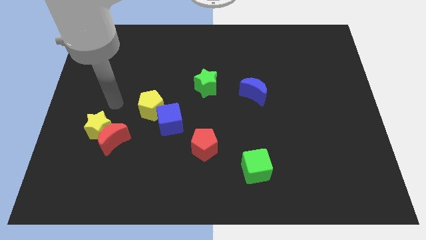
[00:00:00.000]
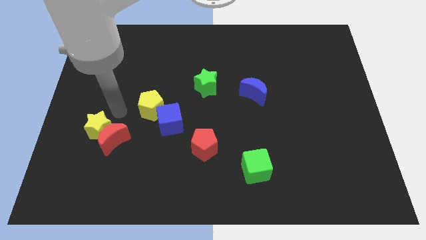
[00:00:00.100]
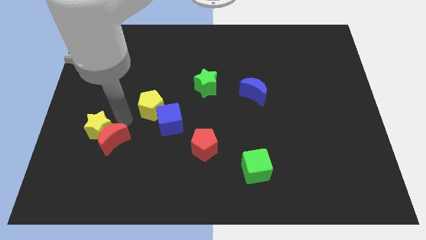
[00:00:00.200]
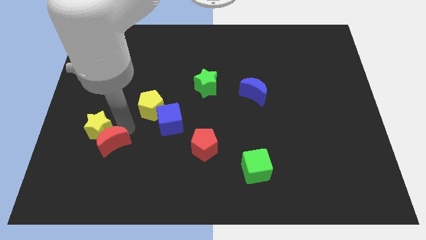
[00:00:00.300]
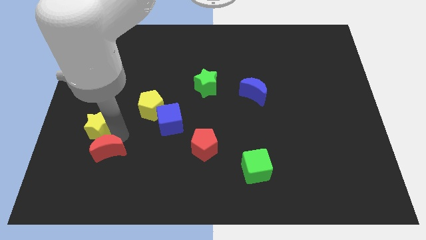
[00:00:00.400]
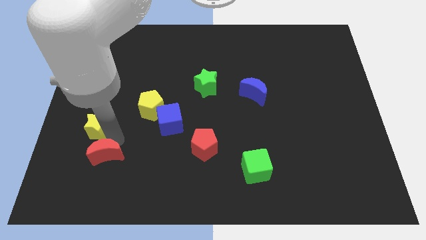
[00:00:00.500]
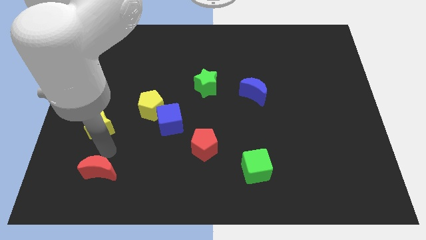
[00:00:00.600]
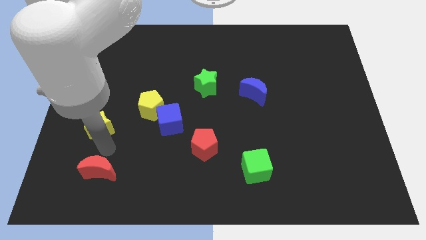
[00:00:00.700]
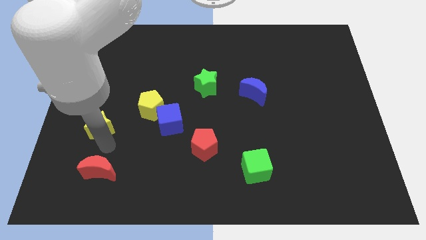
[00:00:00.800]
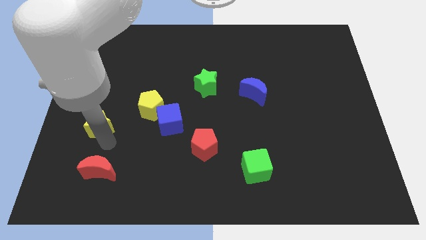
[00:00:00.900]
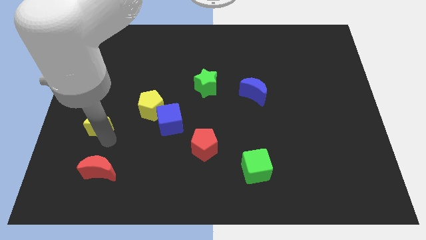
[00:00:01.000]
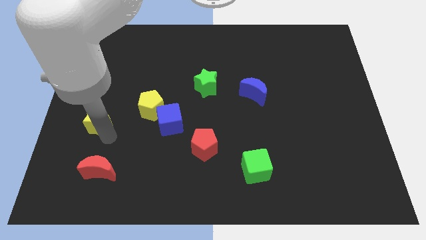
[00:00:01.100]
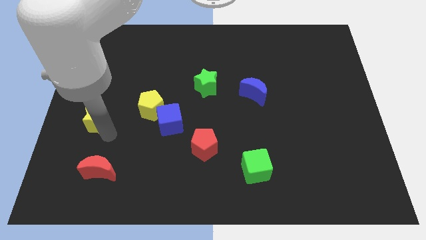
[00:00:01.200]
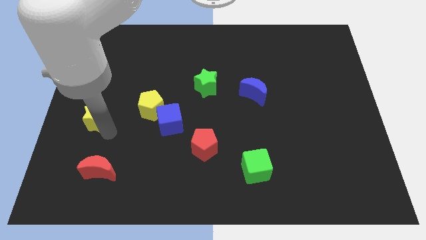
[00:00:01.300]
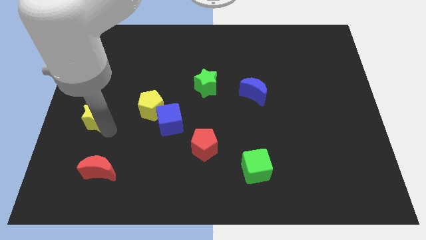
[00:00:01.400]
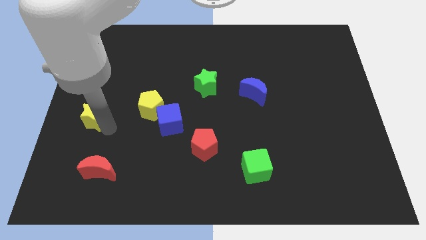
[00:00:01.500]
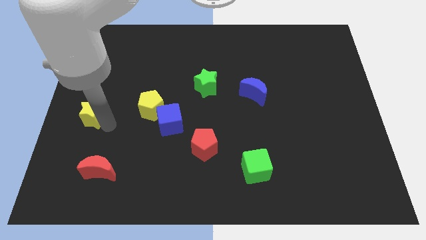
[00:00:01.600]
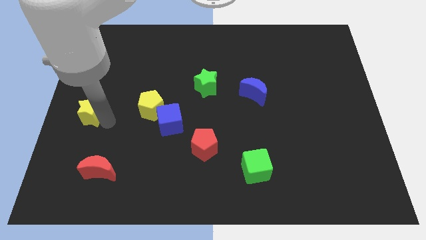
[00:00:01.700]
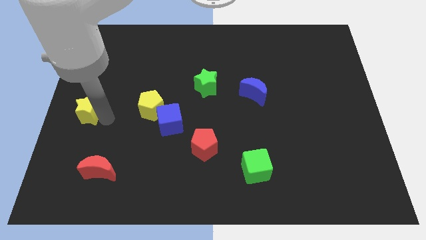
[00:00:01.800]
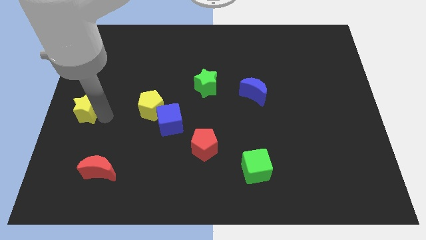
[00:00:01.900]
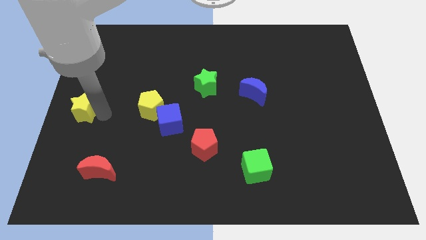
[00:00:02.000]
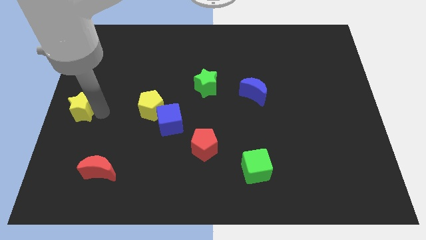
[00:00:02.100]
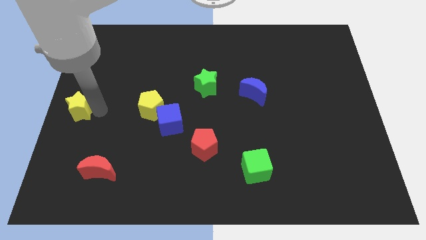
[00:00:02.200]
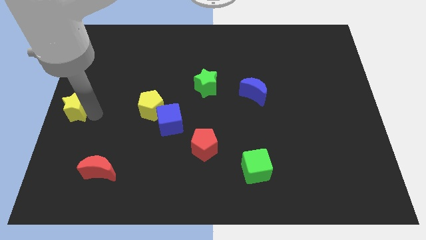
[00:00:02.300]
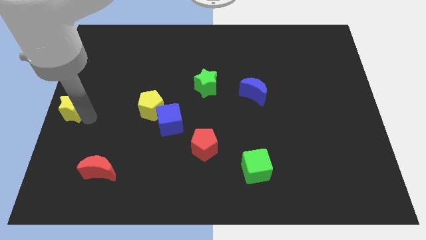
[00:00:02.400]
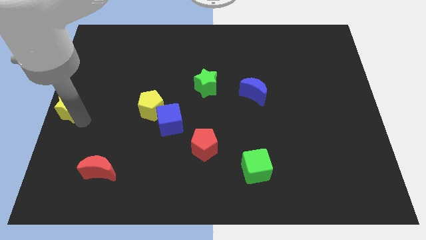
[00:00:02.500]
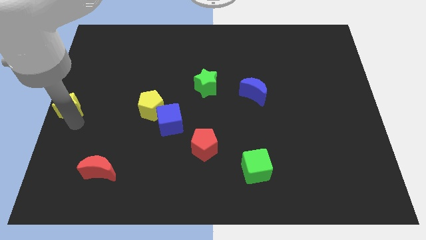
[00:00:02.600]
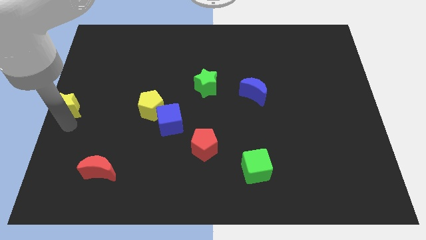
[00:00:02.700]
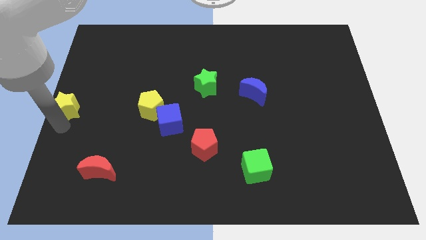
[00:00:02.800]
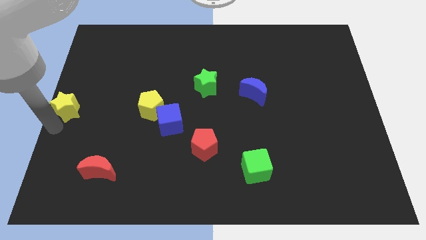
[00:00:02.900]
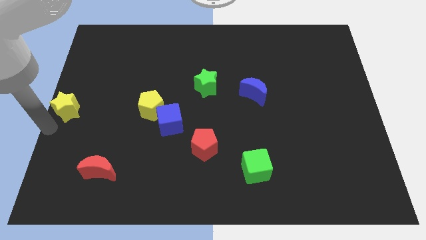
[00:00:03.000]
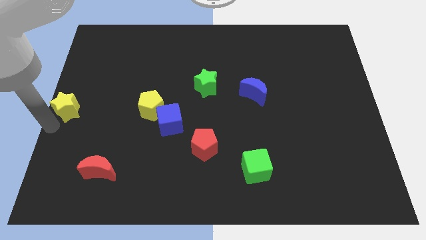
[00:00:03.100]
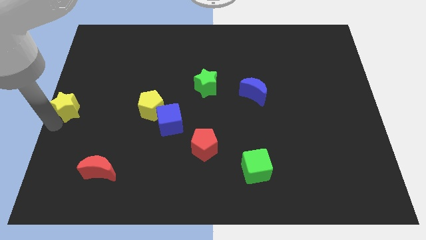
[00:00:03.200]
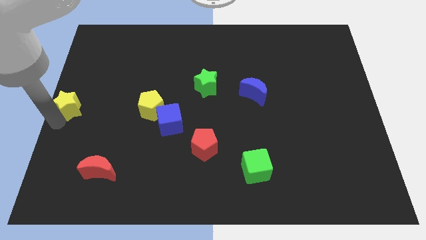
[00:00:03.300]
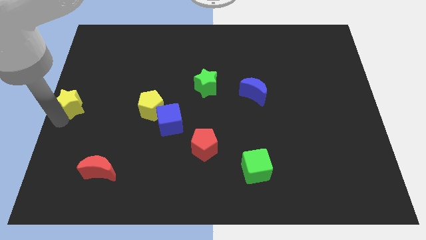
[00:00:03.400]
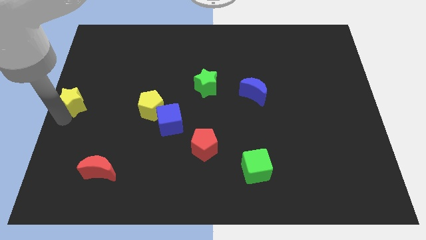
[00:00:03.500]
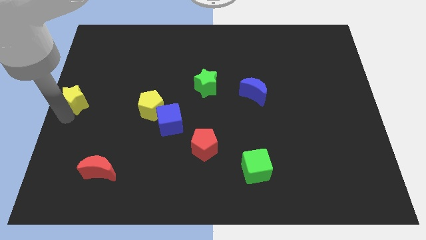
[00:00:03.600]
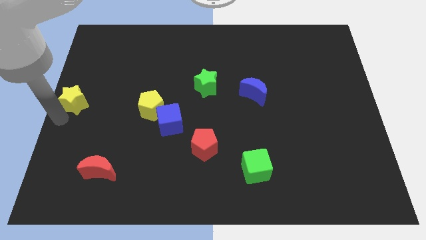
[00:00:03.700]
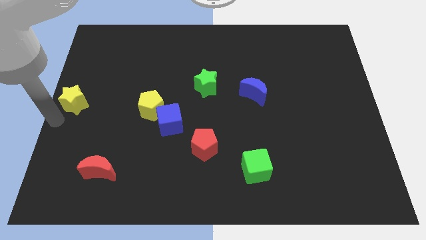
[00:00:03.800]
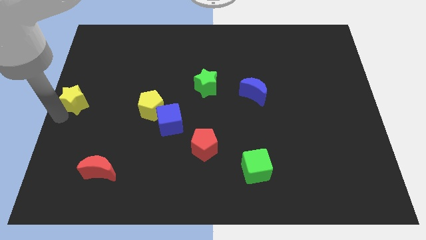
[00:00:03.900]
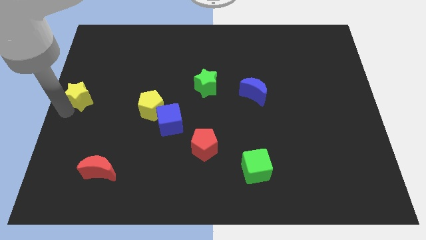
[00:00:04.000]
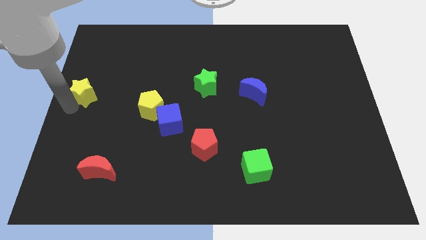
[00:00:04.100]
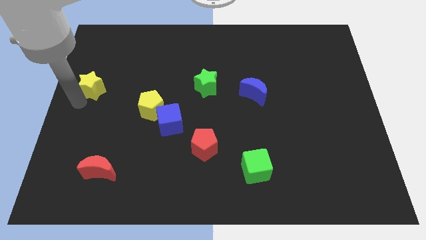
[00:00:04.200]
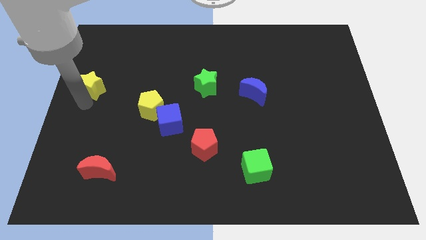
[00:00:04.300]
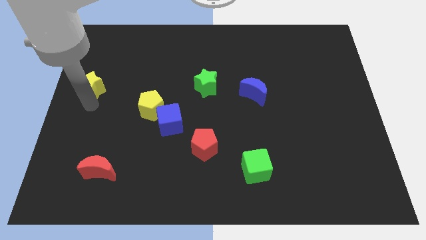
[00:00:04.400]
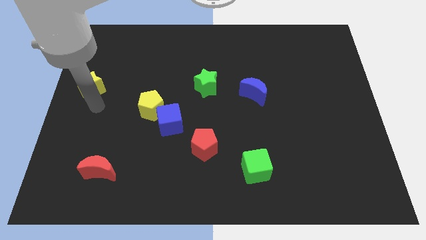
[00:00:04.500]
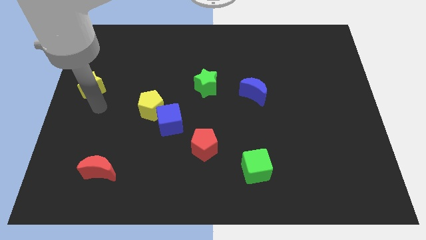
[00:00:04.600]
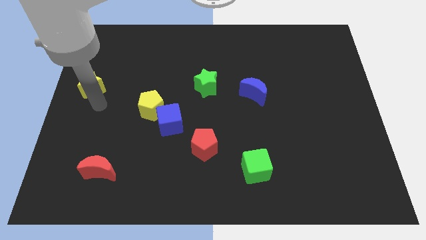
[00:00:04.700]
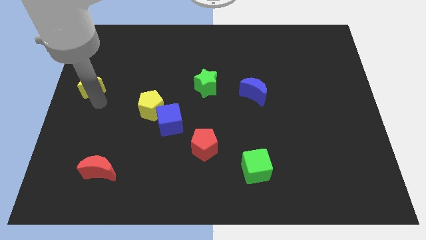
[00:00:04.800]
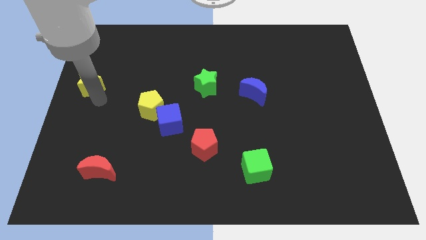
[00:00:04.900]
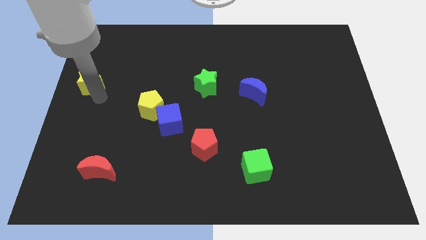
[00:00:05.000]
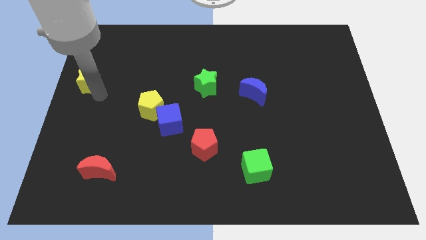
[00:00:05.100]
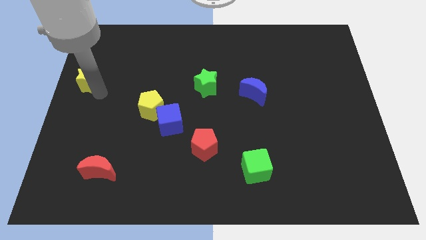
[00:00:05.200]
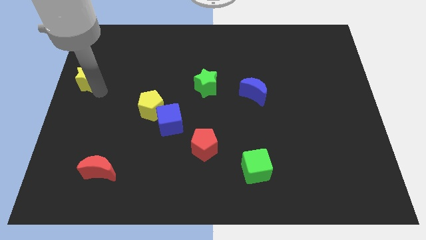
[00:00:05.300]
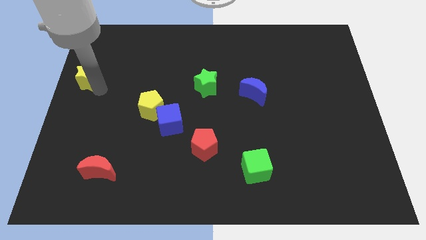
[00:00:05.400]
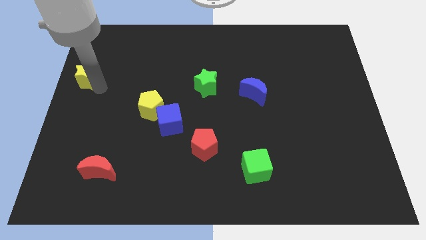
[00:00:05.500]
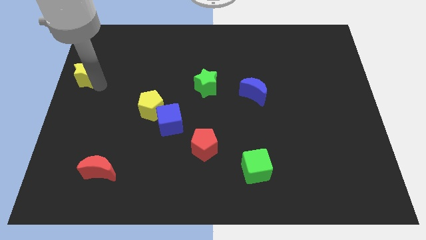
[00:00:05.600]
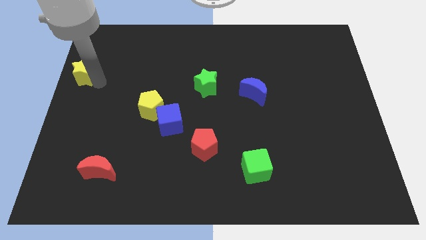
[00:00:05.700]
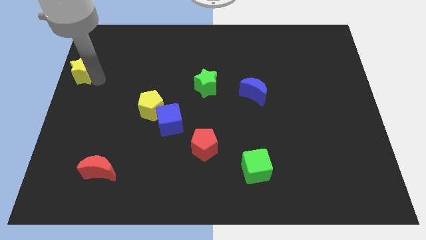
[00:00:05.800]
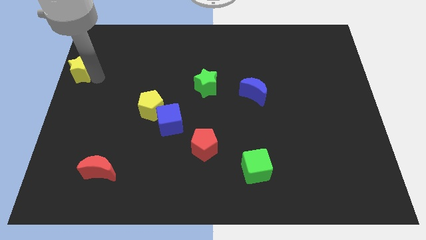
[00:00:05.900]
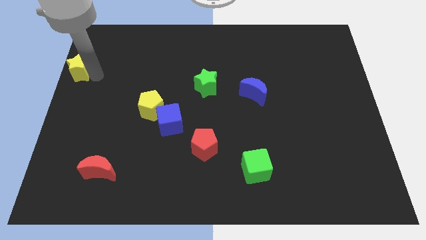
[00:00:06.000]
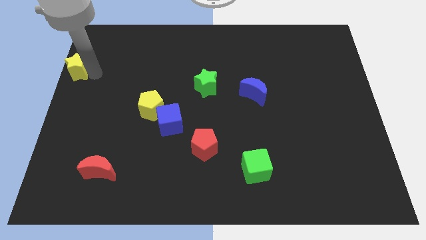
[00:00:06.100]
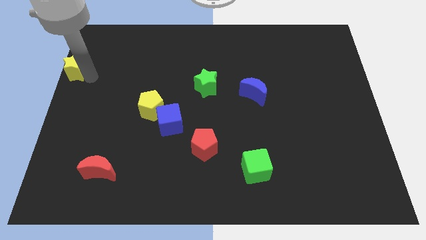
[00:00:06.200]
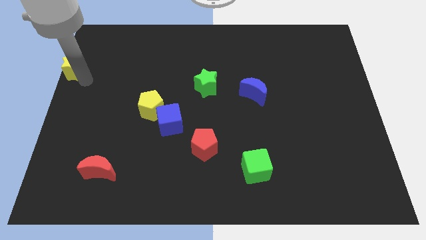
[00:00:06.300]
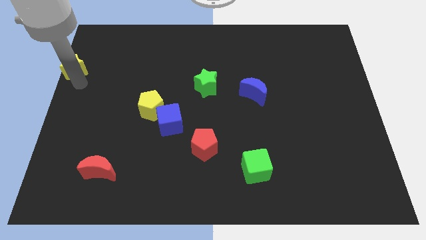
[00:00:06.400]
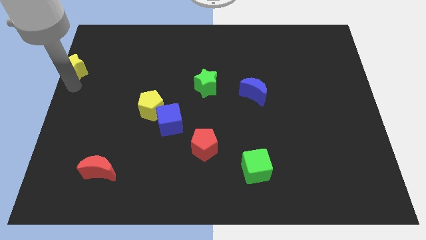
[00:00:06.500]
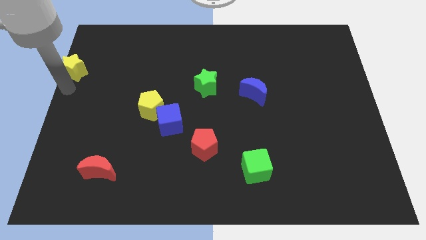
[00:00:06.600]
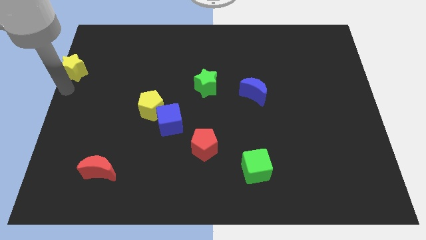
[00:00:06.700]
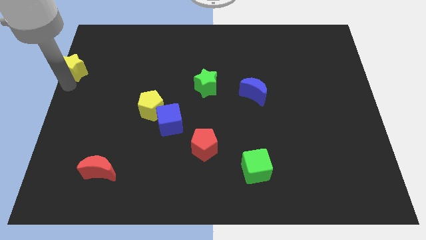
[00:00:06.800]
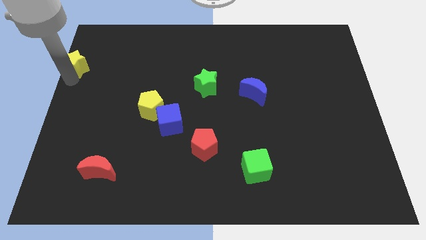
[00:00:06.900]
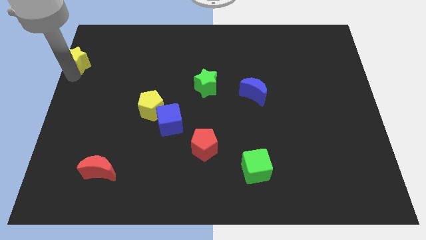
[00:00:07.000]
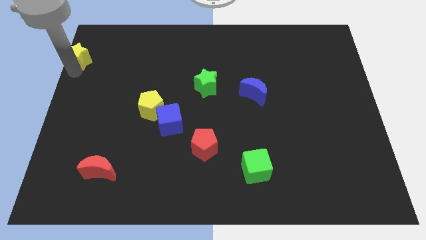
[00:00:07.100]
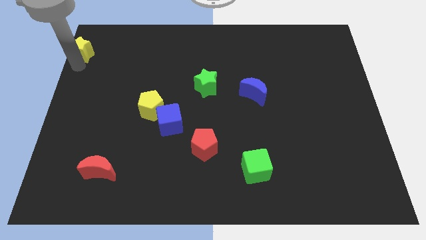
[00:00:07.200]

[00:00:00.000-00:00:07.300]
slide the yellow star to the top left of the board
